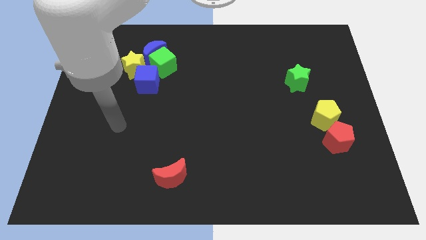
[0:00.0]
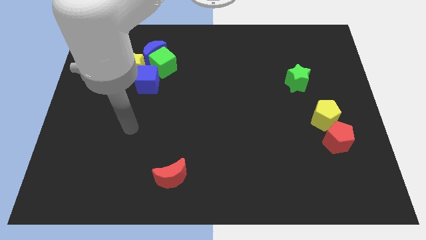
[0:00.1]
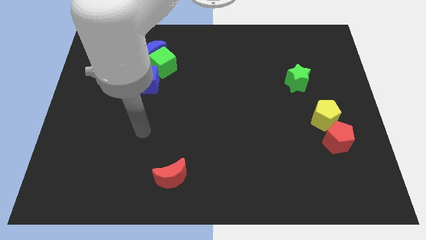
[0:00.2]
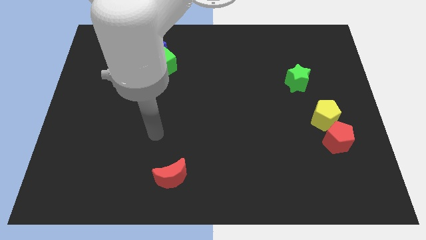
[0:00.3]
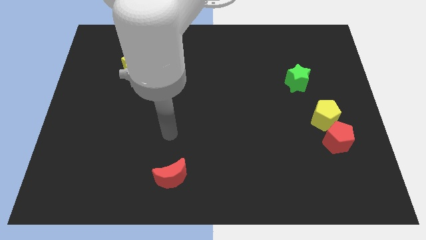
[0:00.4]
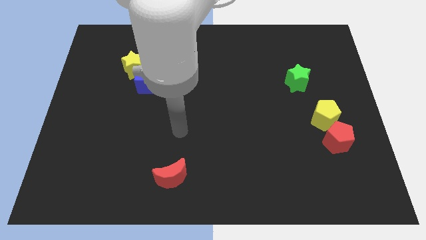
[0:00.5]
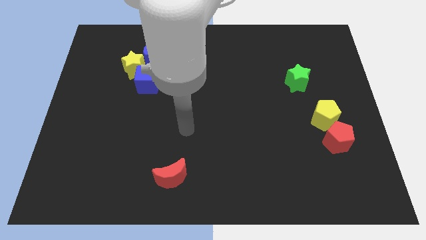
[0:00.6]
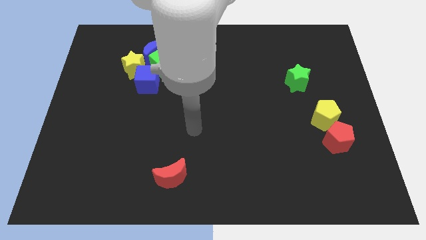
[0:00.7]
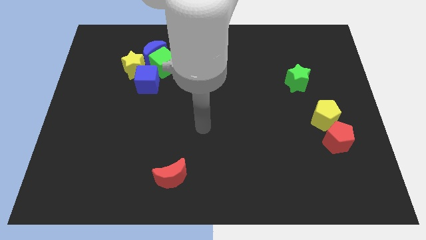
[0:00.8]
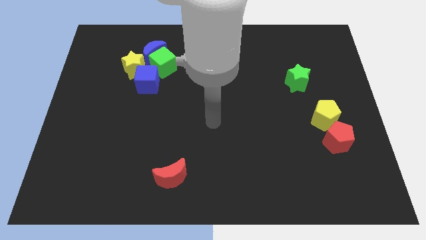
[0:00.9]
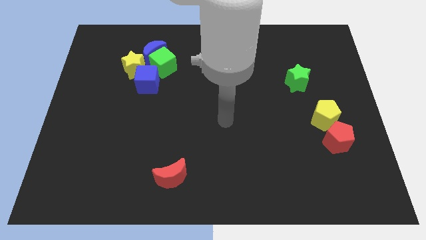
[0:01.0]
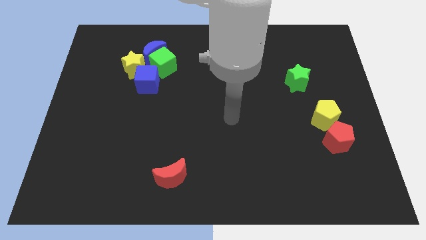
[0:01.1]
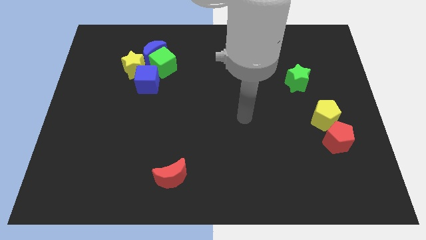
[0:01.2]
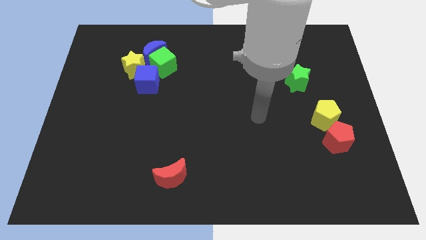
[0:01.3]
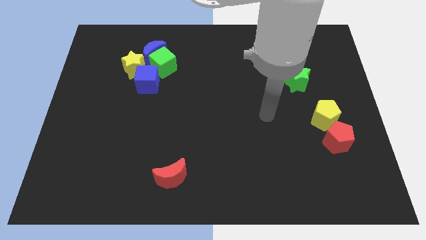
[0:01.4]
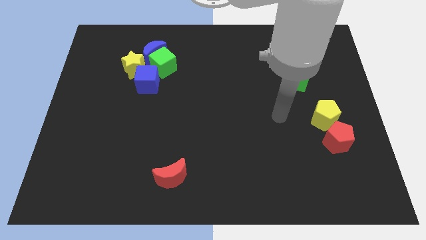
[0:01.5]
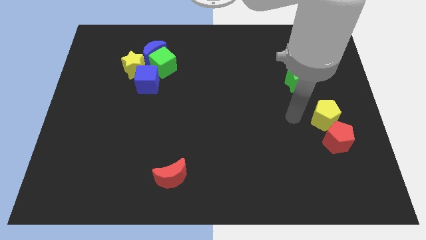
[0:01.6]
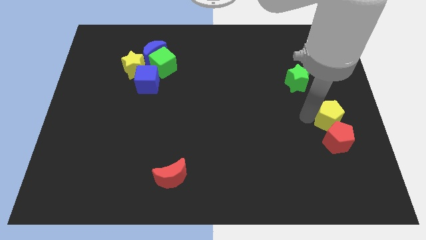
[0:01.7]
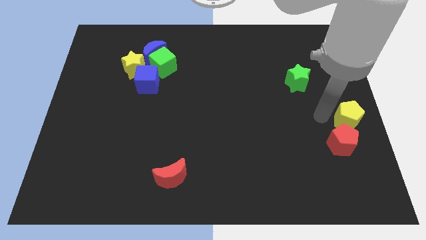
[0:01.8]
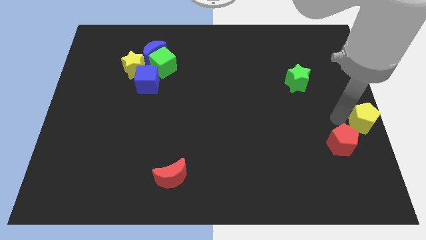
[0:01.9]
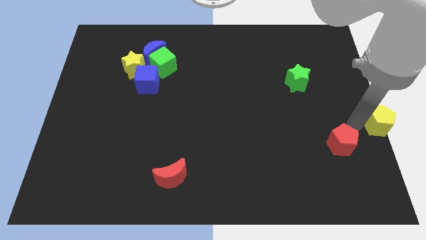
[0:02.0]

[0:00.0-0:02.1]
pull the red pentagon apart from the yellow pentagon

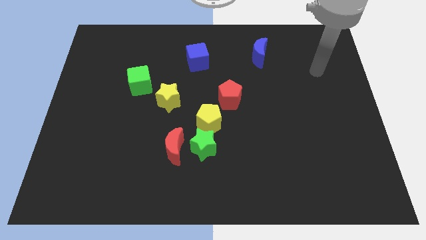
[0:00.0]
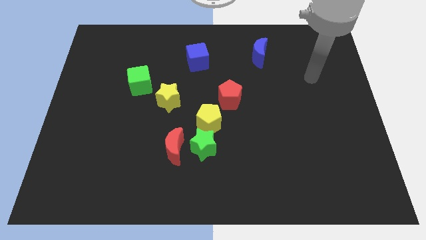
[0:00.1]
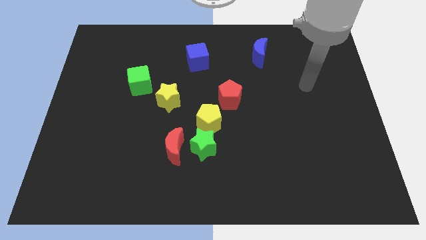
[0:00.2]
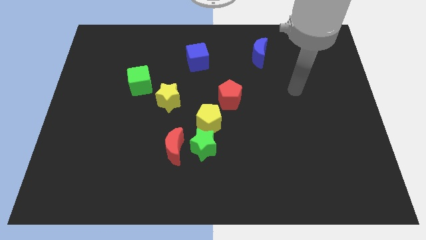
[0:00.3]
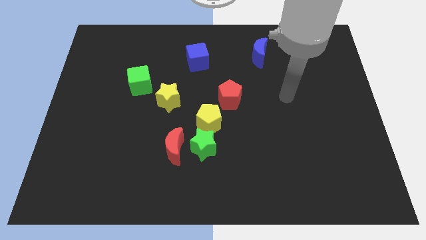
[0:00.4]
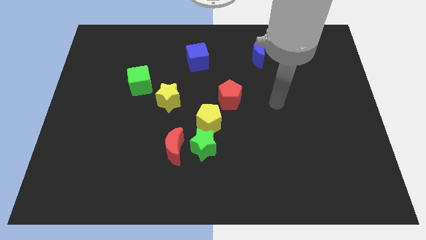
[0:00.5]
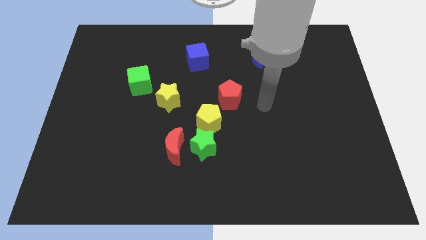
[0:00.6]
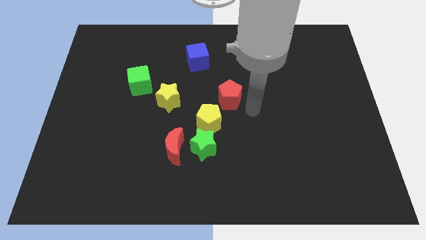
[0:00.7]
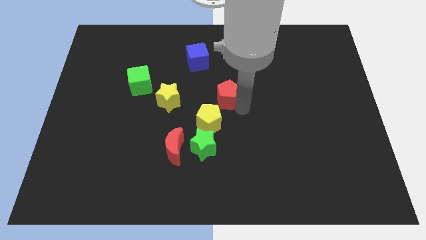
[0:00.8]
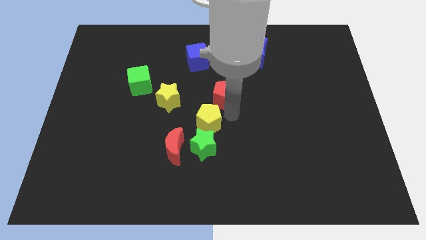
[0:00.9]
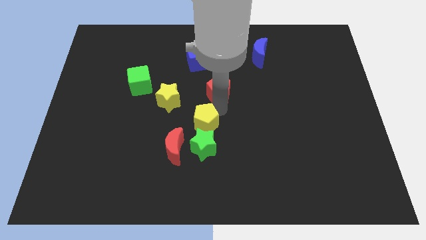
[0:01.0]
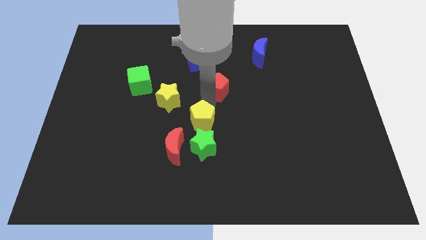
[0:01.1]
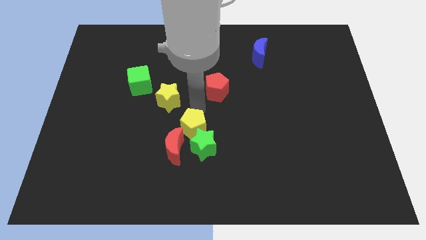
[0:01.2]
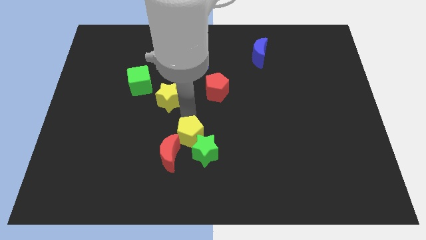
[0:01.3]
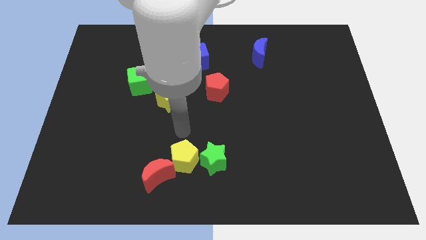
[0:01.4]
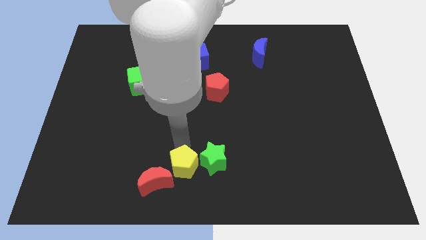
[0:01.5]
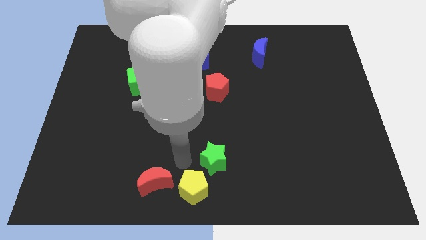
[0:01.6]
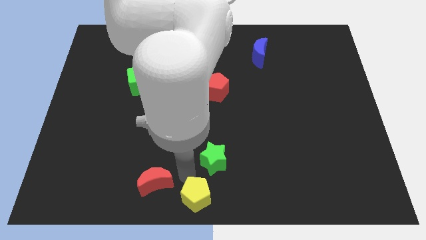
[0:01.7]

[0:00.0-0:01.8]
separate the green star from the red moon and yellow pentagon

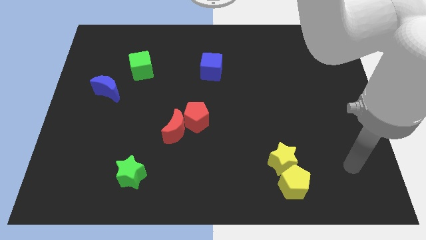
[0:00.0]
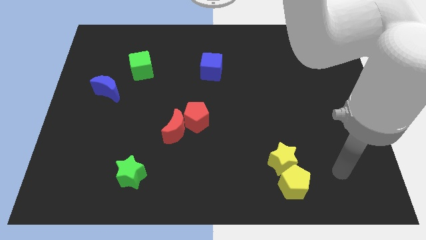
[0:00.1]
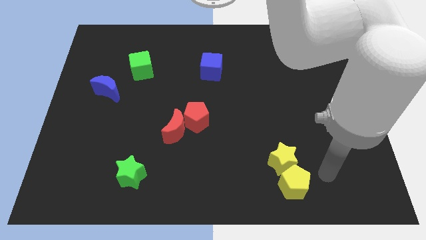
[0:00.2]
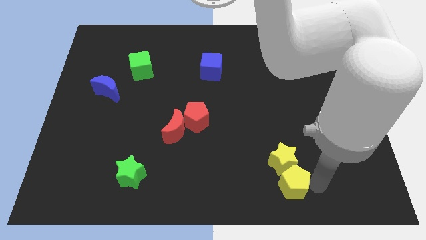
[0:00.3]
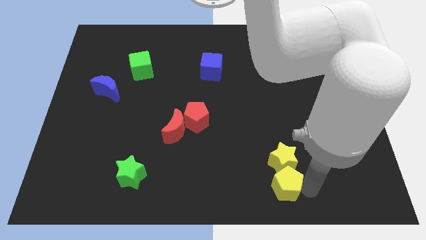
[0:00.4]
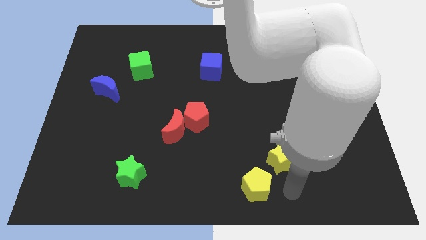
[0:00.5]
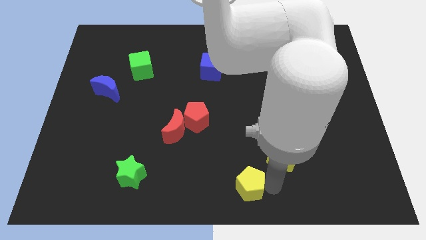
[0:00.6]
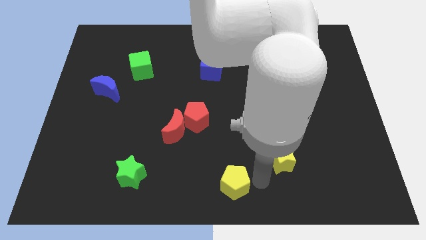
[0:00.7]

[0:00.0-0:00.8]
separate the yellow star from the yellow pentagon

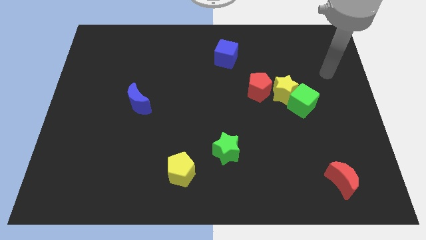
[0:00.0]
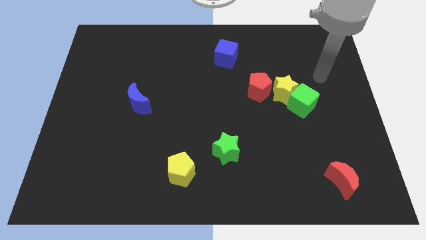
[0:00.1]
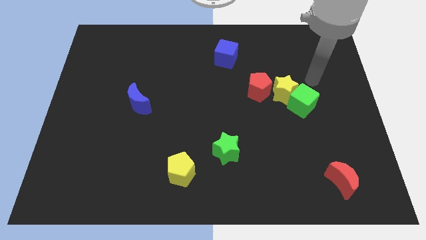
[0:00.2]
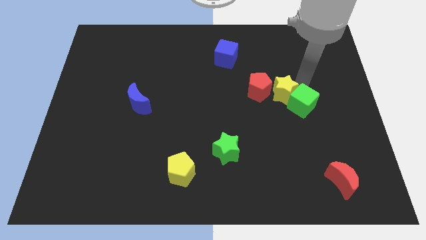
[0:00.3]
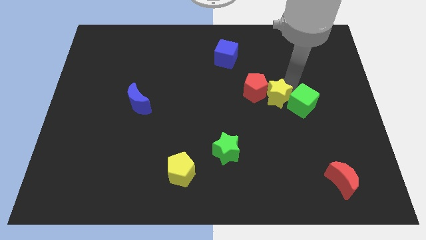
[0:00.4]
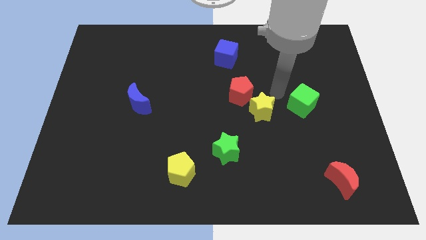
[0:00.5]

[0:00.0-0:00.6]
pull the green cube apart from the yellow star

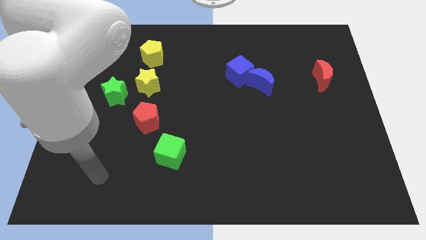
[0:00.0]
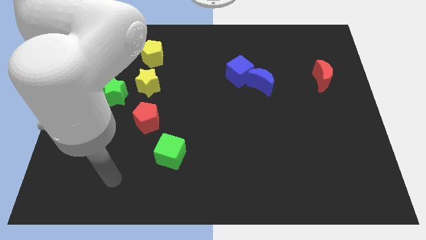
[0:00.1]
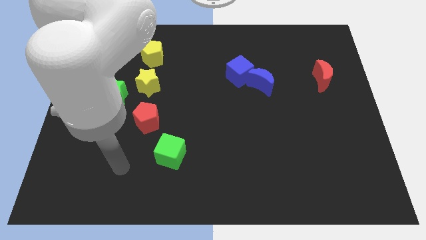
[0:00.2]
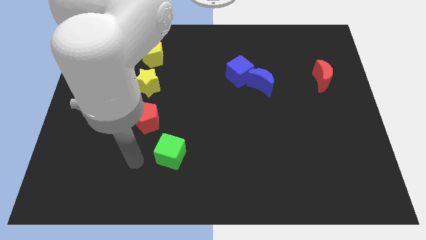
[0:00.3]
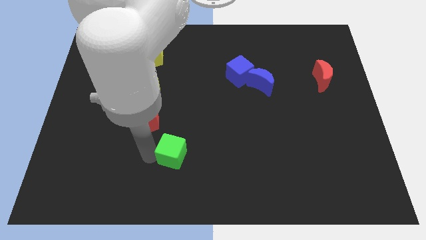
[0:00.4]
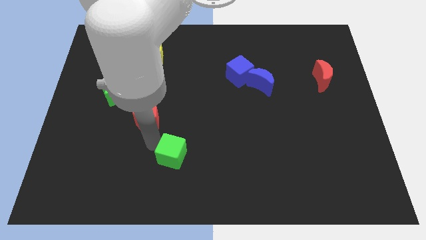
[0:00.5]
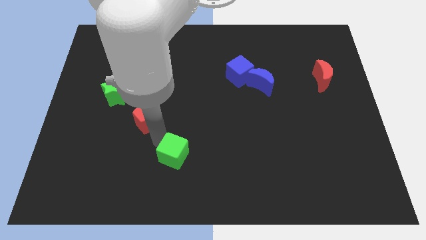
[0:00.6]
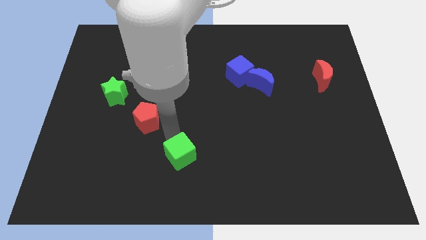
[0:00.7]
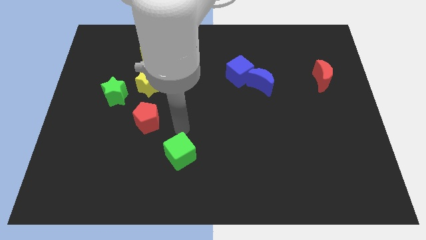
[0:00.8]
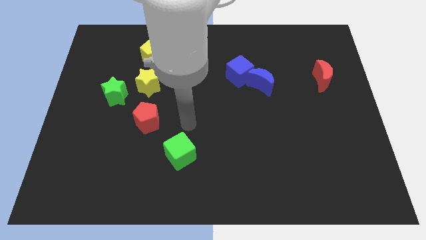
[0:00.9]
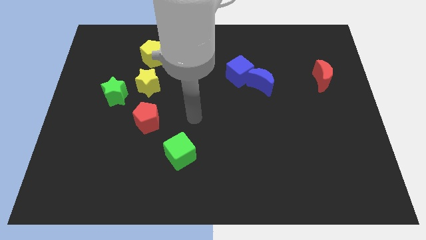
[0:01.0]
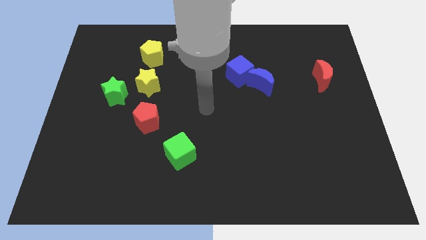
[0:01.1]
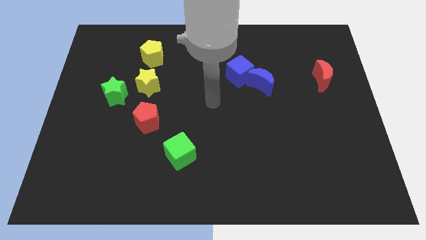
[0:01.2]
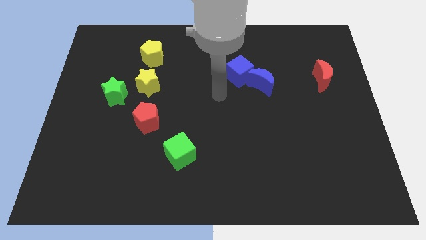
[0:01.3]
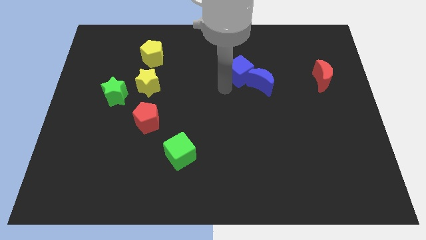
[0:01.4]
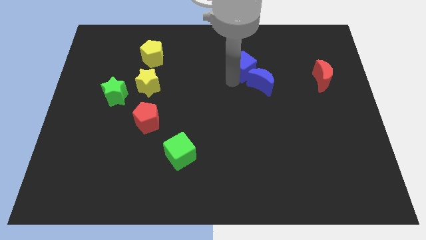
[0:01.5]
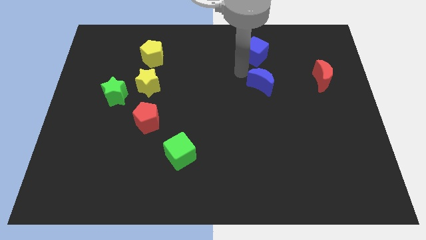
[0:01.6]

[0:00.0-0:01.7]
pull the blue moon apart from the blue cube

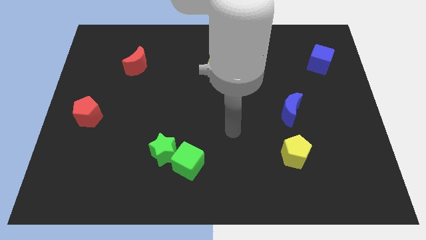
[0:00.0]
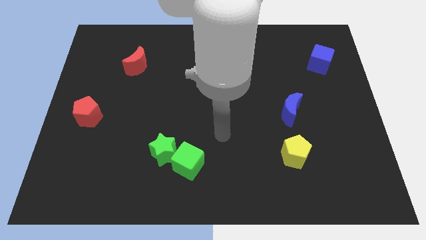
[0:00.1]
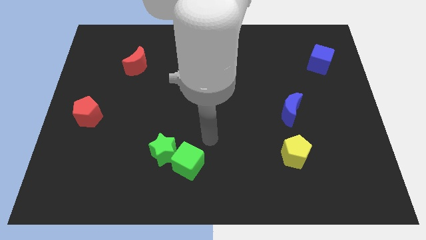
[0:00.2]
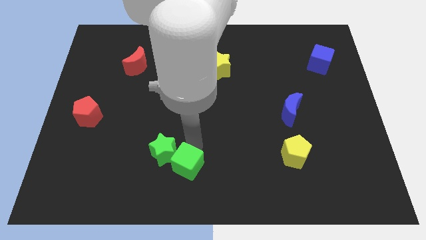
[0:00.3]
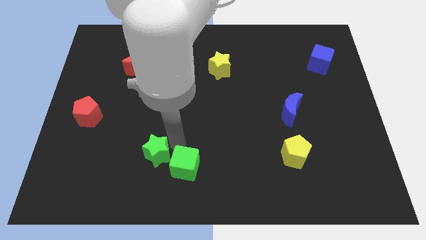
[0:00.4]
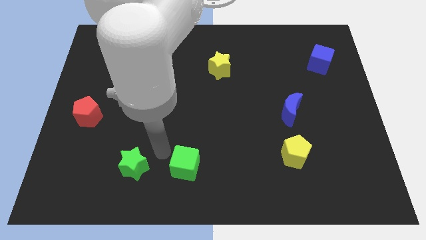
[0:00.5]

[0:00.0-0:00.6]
pull the green cube apart from the green star

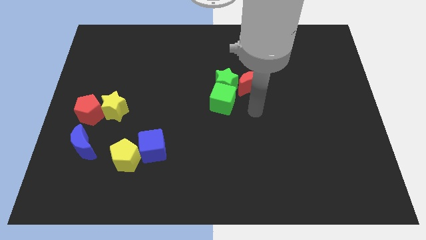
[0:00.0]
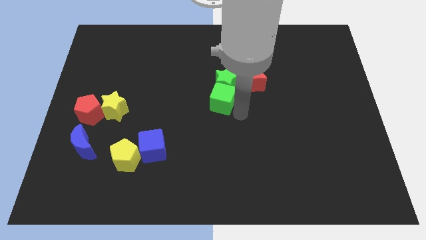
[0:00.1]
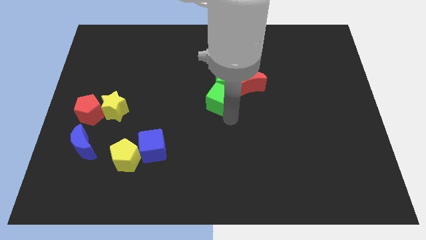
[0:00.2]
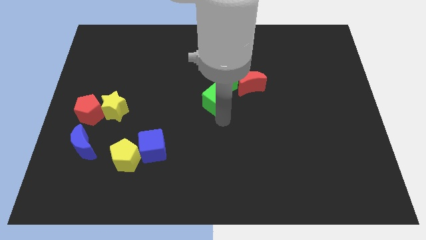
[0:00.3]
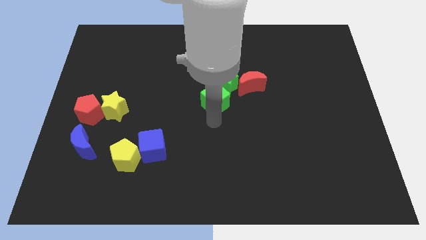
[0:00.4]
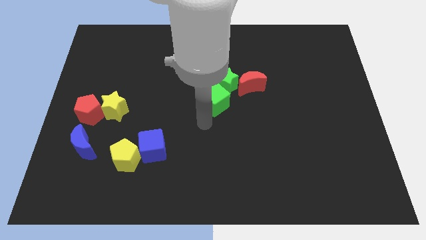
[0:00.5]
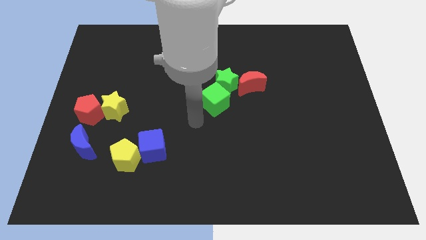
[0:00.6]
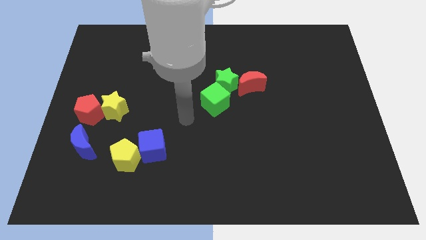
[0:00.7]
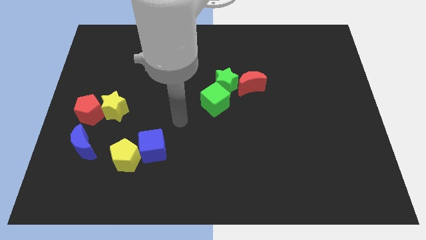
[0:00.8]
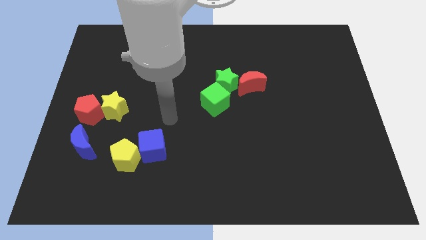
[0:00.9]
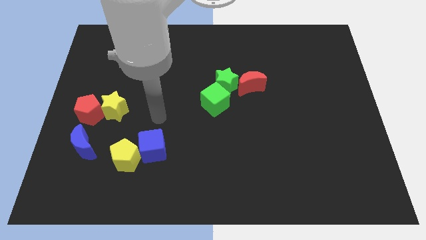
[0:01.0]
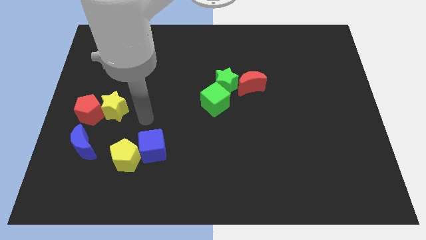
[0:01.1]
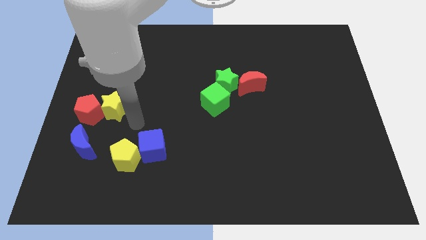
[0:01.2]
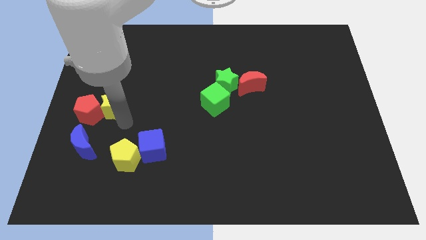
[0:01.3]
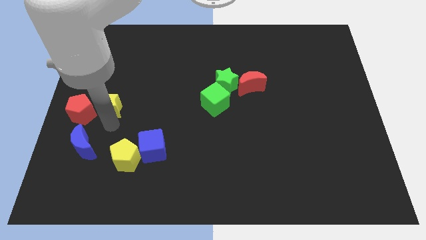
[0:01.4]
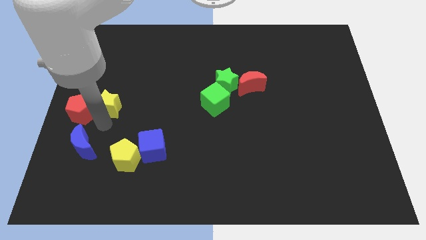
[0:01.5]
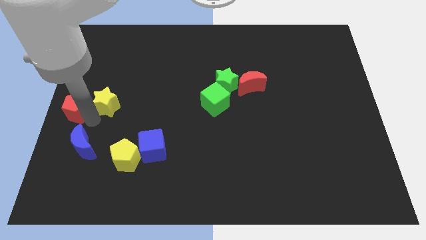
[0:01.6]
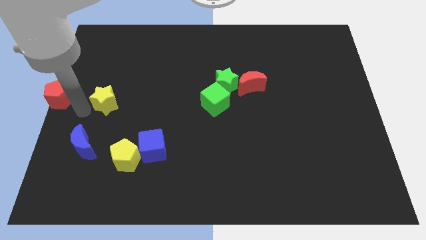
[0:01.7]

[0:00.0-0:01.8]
separate the yellow star from the red pentagon
